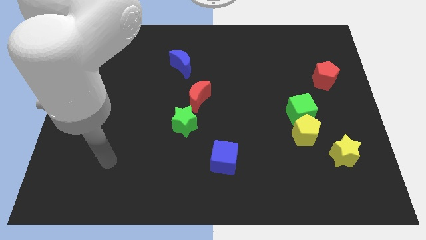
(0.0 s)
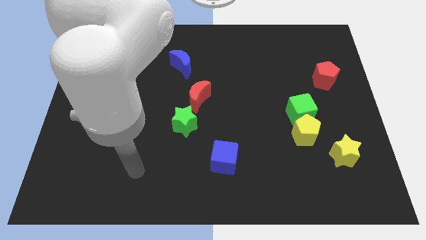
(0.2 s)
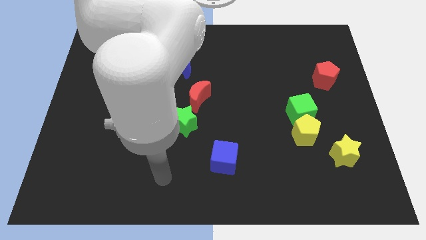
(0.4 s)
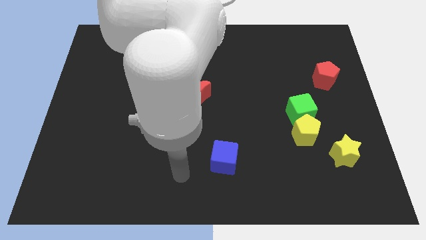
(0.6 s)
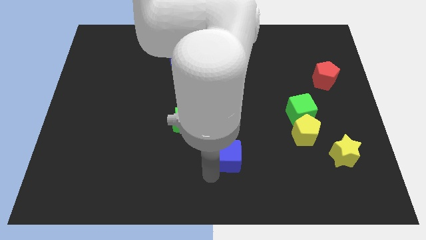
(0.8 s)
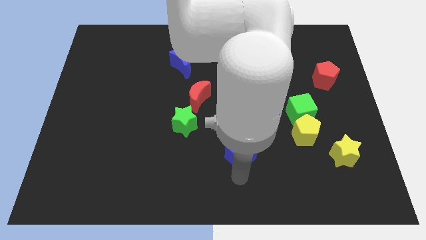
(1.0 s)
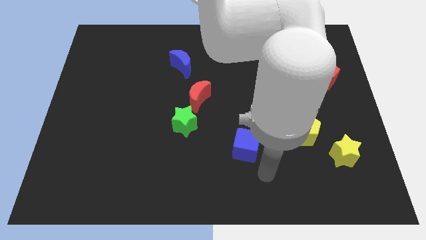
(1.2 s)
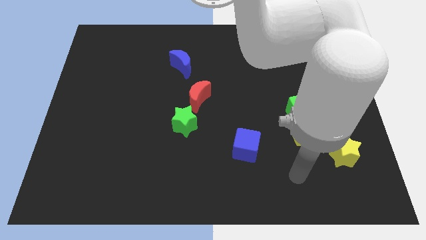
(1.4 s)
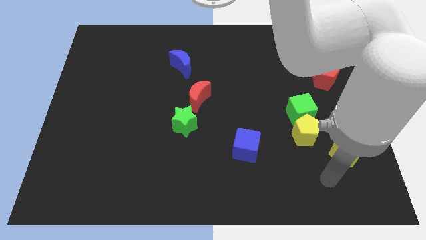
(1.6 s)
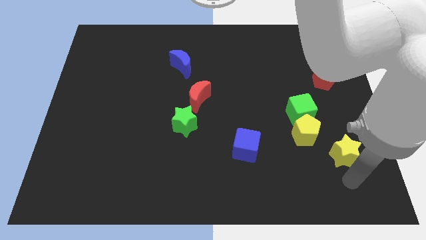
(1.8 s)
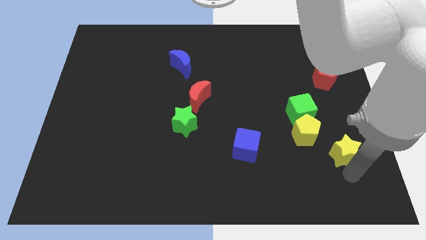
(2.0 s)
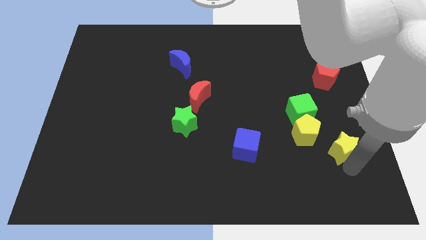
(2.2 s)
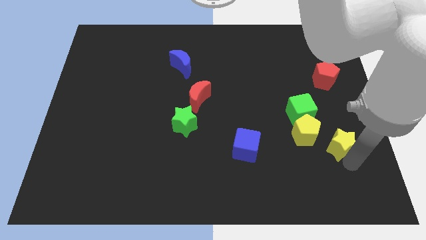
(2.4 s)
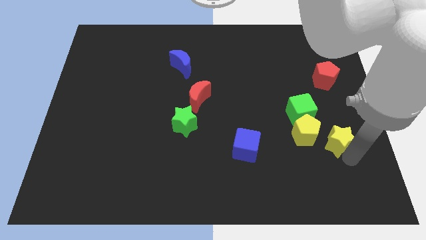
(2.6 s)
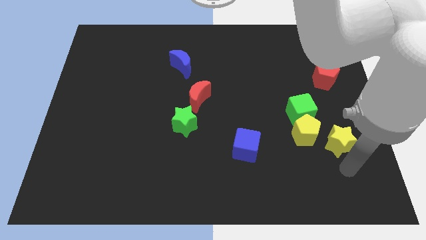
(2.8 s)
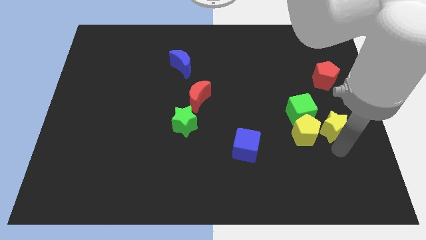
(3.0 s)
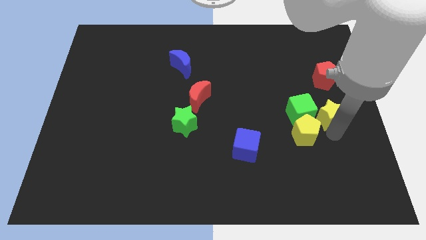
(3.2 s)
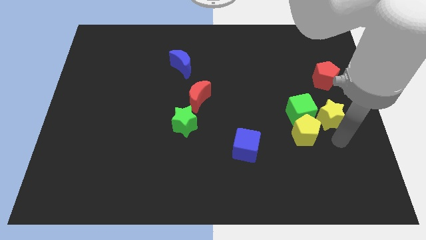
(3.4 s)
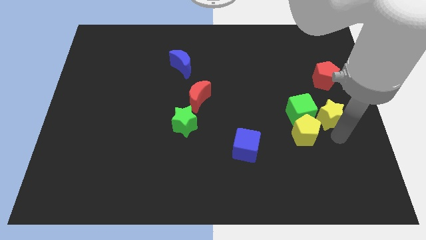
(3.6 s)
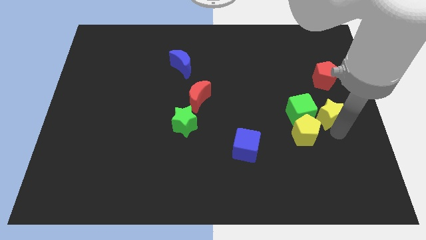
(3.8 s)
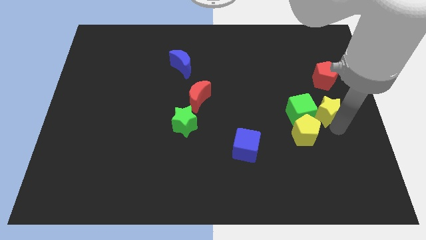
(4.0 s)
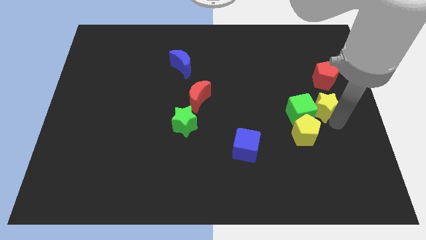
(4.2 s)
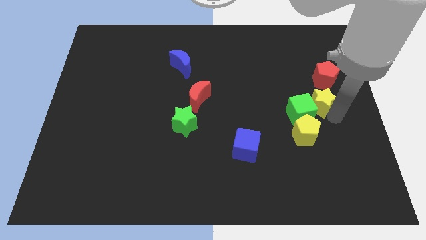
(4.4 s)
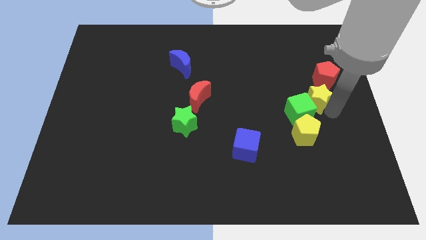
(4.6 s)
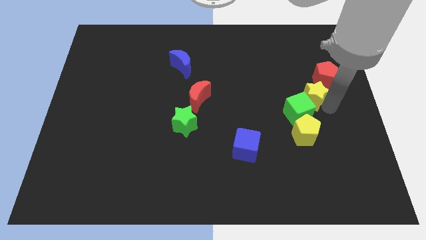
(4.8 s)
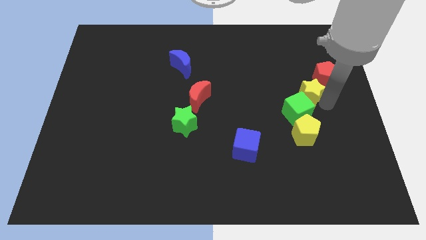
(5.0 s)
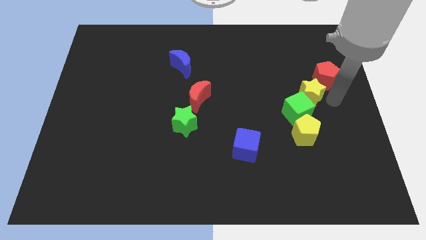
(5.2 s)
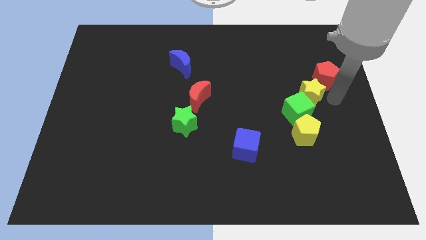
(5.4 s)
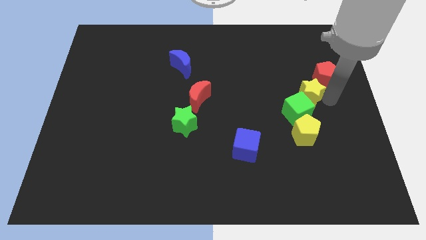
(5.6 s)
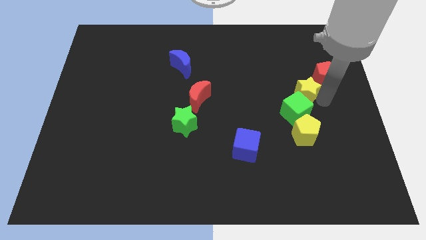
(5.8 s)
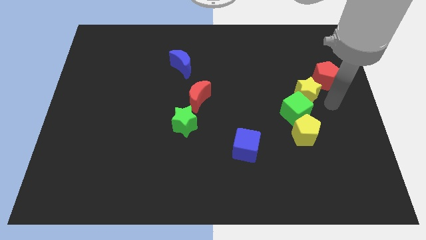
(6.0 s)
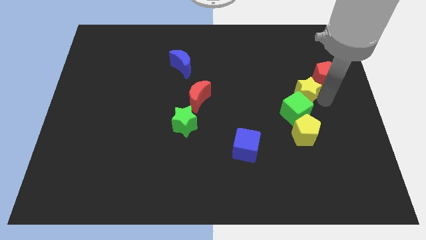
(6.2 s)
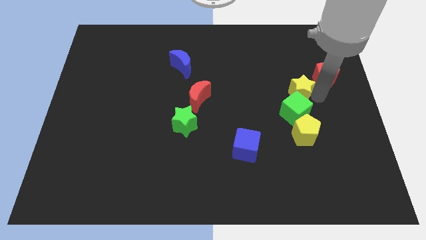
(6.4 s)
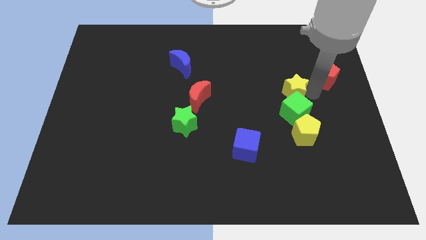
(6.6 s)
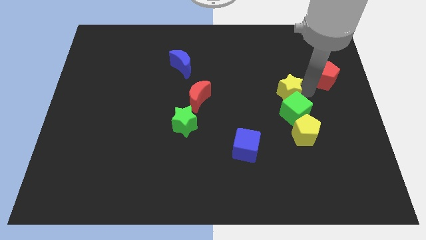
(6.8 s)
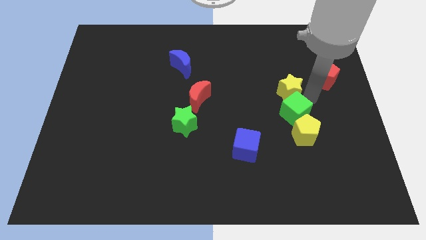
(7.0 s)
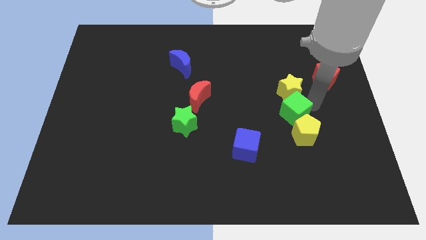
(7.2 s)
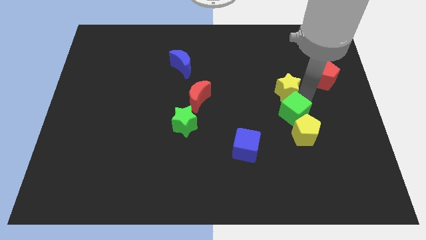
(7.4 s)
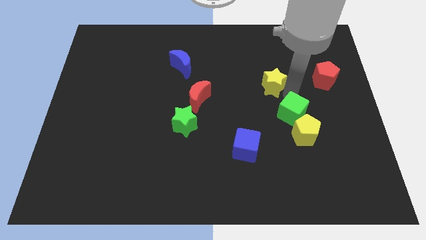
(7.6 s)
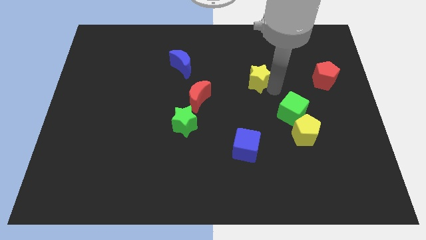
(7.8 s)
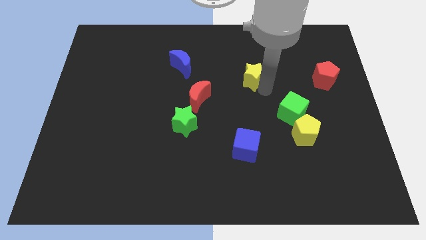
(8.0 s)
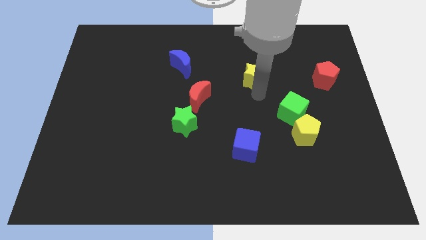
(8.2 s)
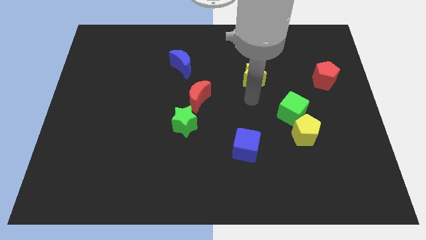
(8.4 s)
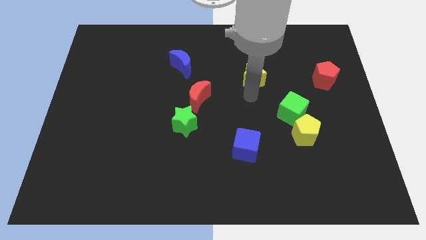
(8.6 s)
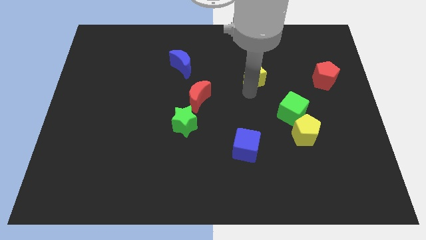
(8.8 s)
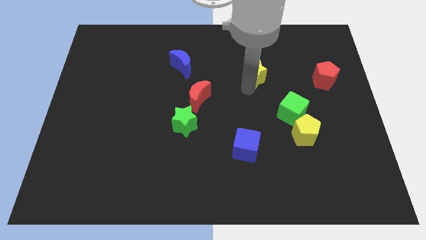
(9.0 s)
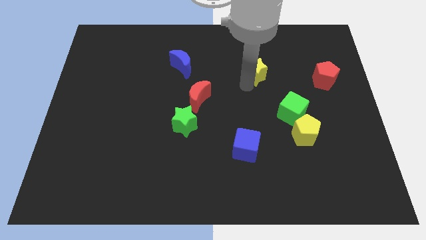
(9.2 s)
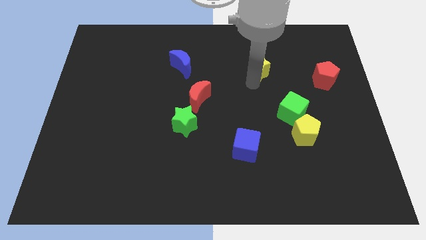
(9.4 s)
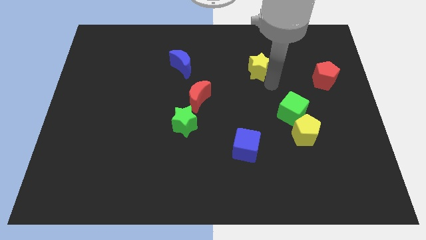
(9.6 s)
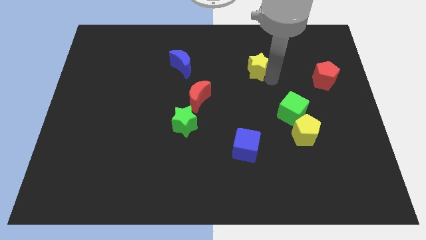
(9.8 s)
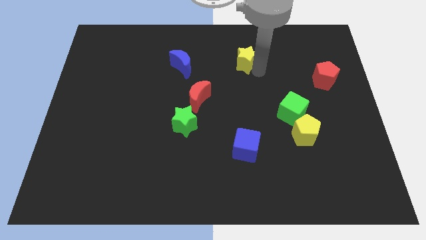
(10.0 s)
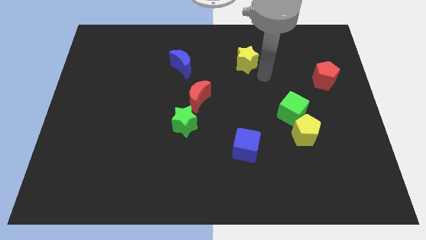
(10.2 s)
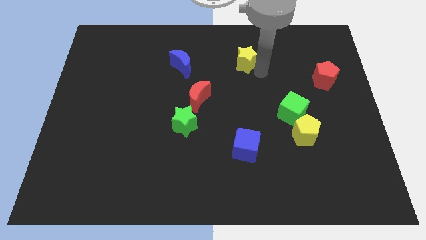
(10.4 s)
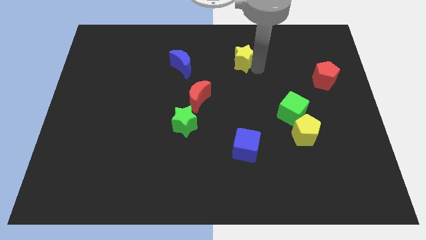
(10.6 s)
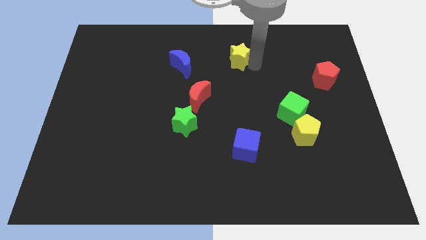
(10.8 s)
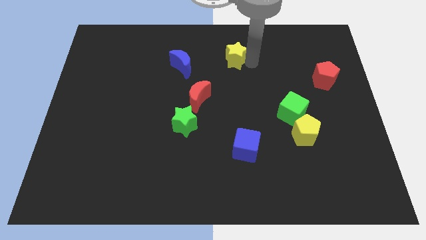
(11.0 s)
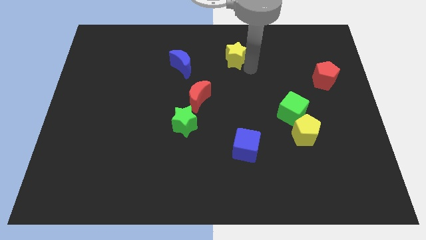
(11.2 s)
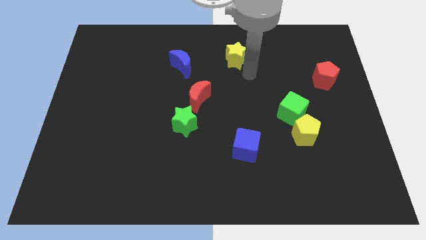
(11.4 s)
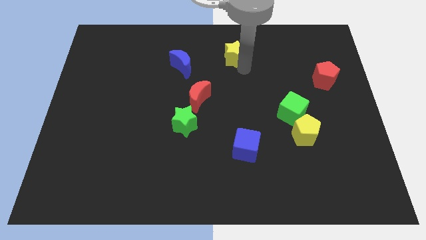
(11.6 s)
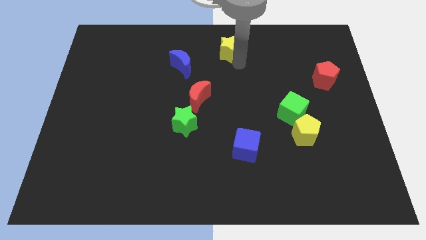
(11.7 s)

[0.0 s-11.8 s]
put the yellow star to the towards your base
